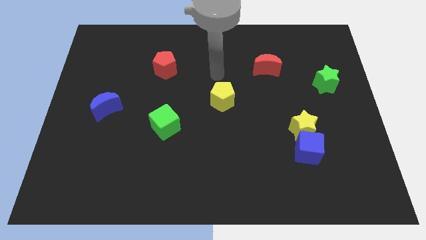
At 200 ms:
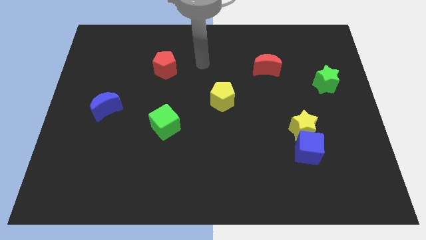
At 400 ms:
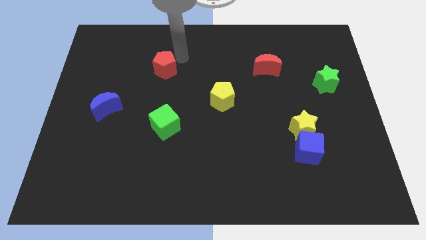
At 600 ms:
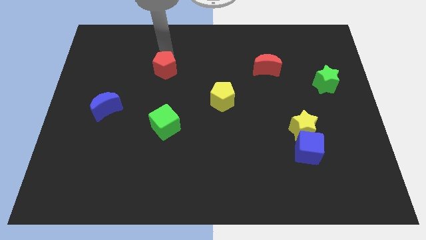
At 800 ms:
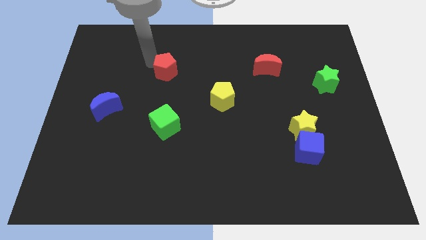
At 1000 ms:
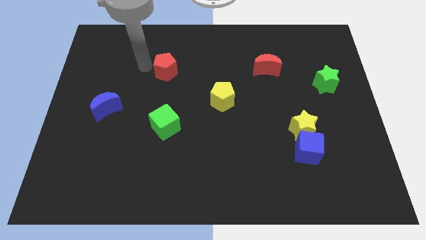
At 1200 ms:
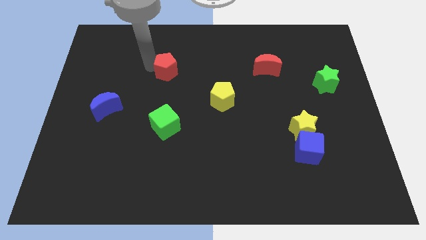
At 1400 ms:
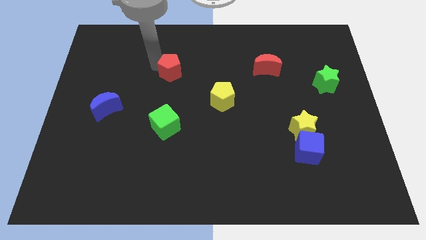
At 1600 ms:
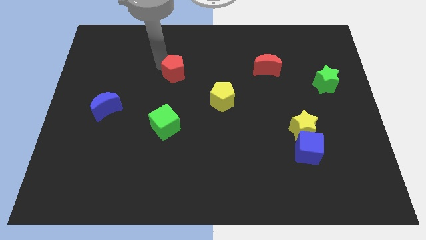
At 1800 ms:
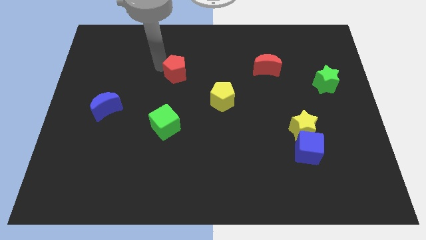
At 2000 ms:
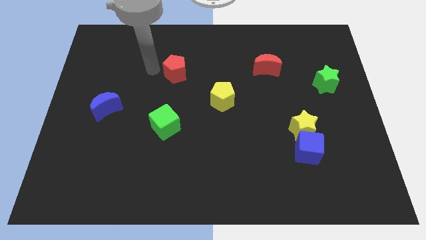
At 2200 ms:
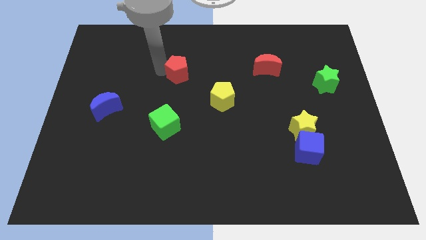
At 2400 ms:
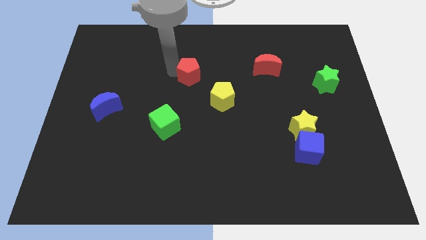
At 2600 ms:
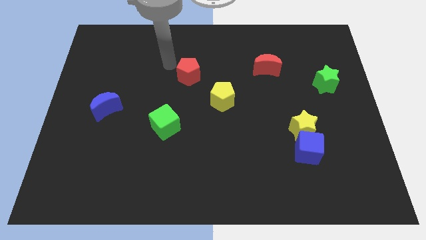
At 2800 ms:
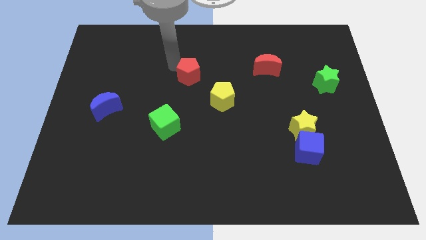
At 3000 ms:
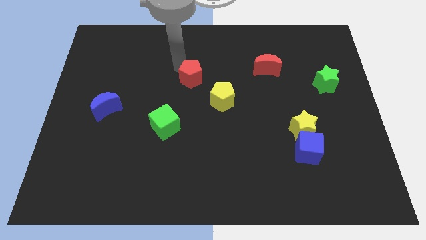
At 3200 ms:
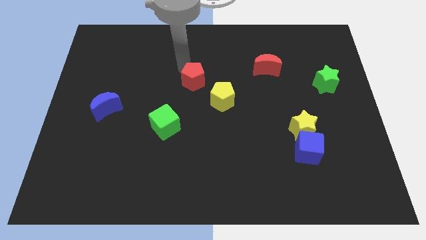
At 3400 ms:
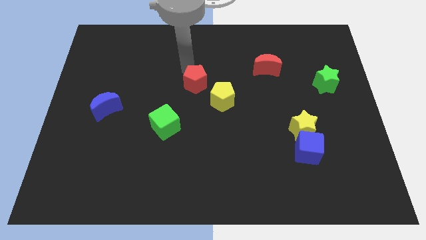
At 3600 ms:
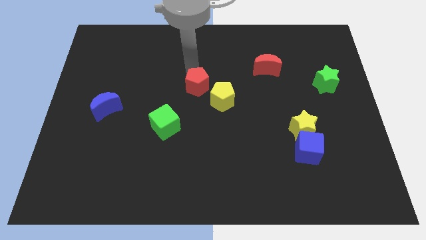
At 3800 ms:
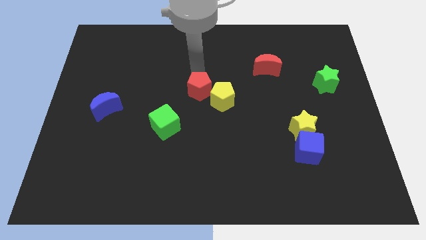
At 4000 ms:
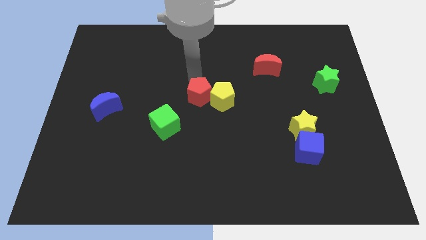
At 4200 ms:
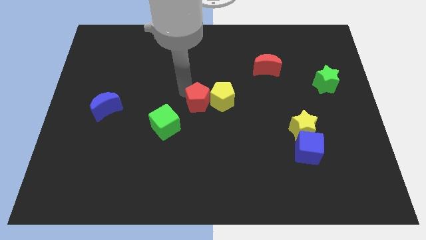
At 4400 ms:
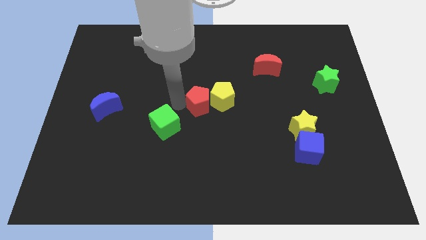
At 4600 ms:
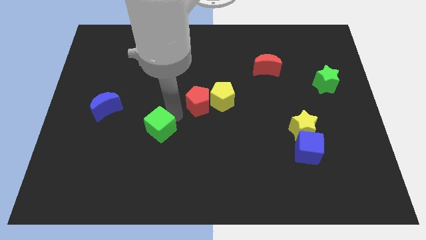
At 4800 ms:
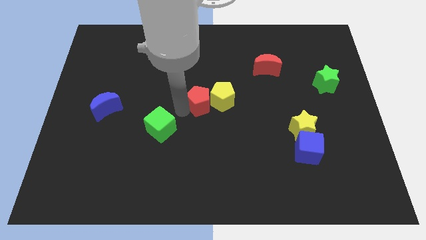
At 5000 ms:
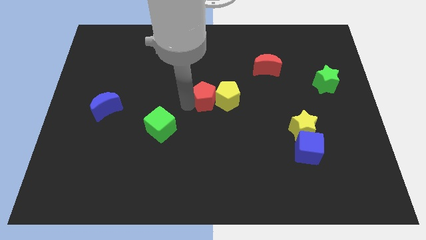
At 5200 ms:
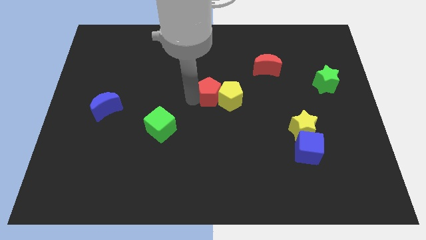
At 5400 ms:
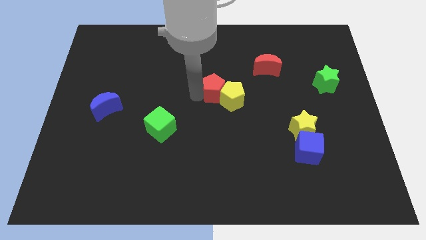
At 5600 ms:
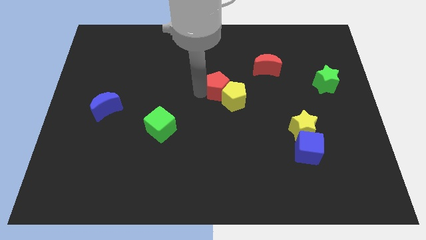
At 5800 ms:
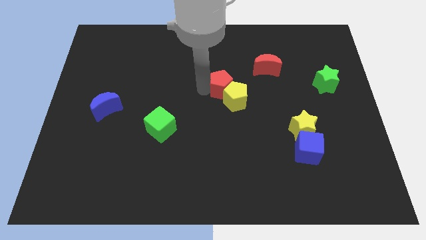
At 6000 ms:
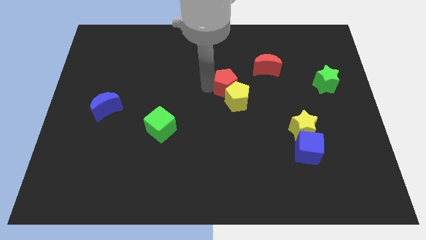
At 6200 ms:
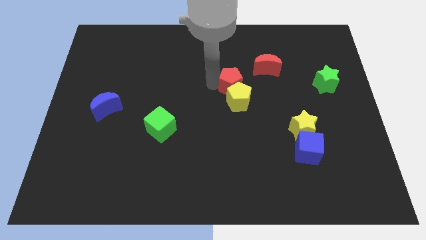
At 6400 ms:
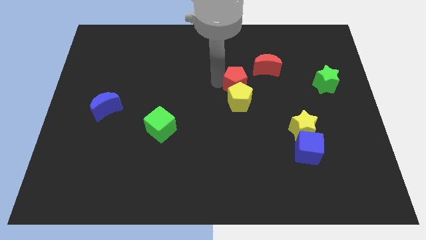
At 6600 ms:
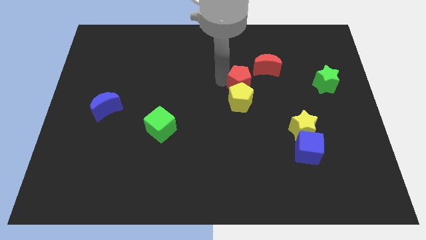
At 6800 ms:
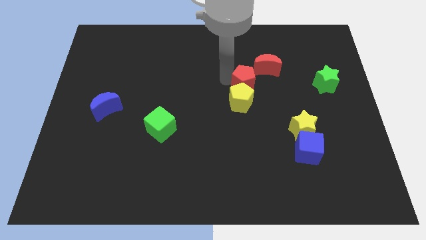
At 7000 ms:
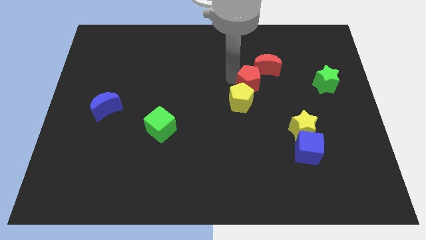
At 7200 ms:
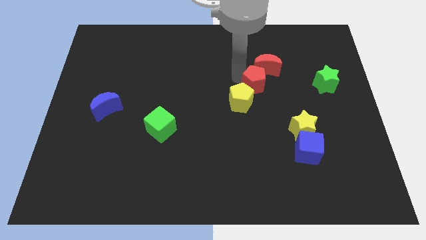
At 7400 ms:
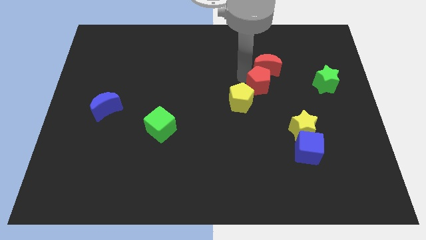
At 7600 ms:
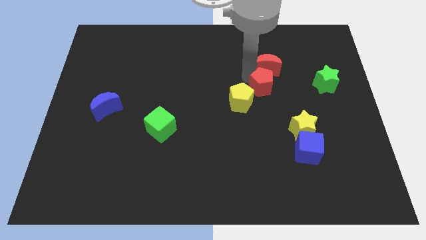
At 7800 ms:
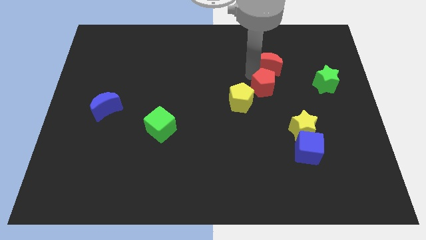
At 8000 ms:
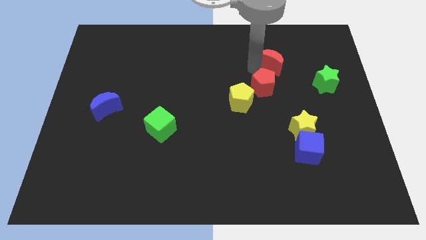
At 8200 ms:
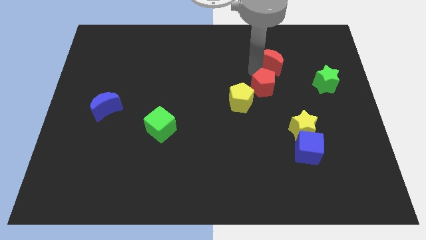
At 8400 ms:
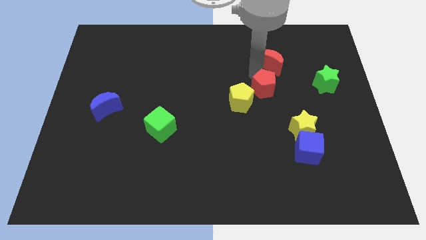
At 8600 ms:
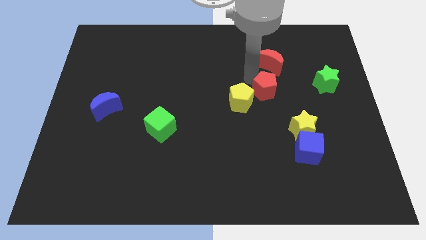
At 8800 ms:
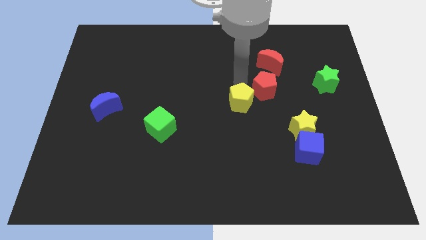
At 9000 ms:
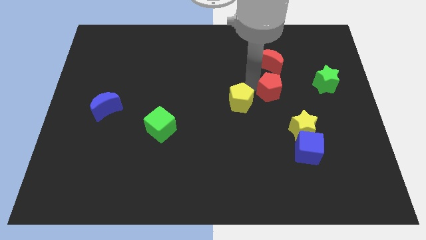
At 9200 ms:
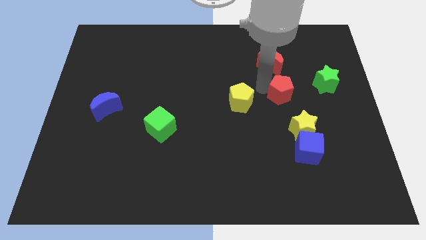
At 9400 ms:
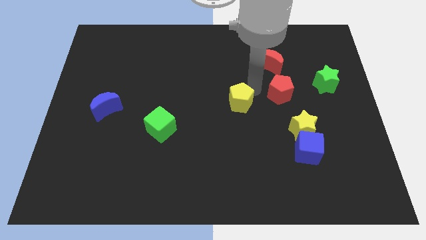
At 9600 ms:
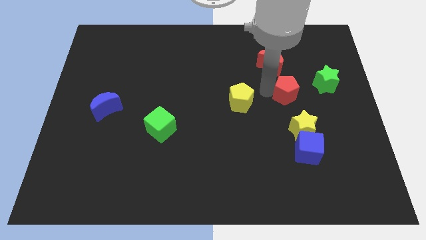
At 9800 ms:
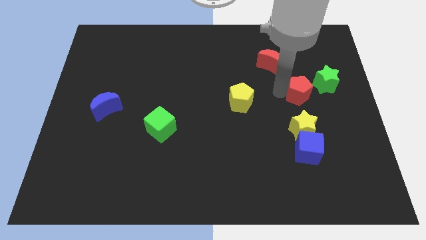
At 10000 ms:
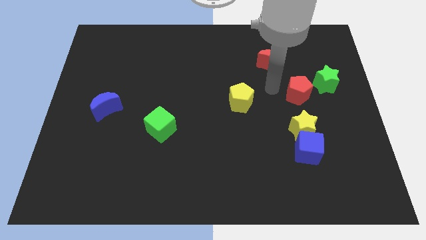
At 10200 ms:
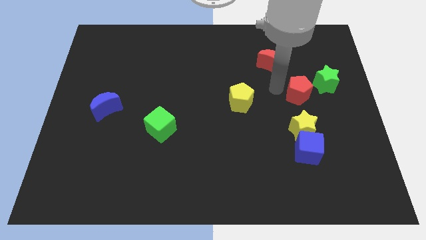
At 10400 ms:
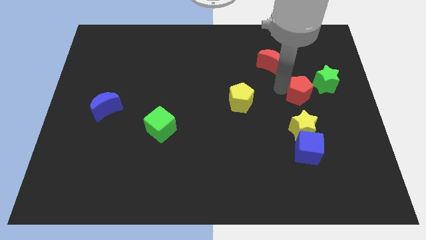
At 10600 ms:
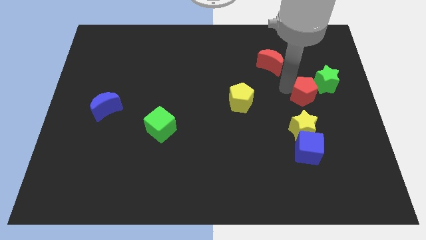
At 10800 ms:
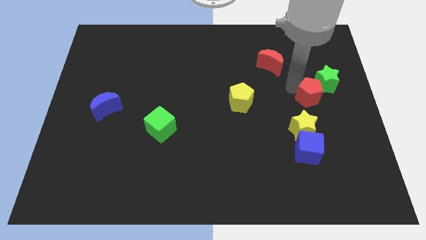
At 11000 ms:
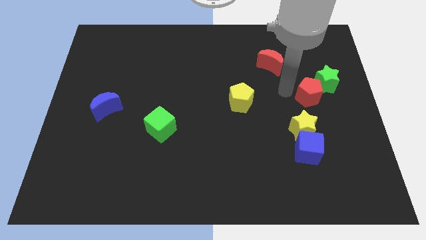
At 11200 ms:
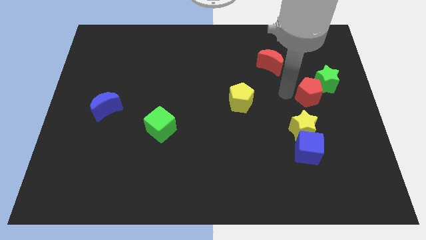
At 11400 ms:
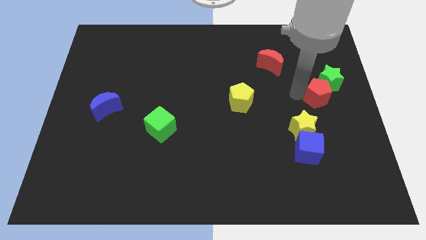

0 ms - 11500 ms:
move the red pentagon to the right side
